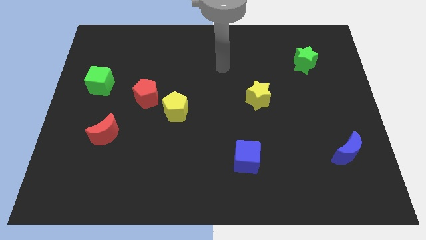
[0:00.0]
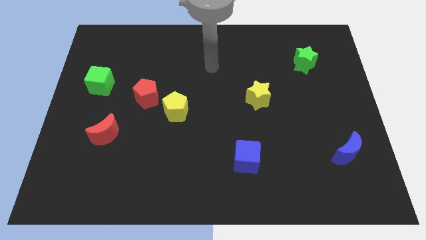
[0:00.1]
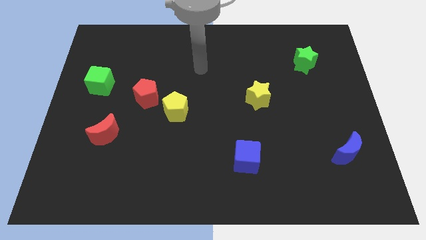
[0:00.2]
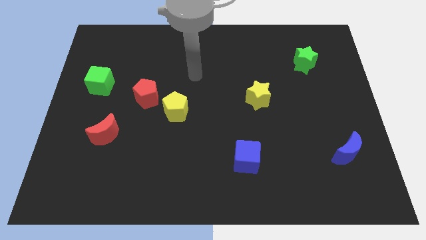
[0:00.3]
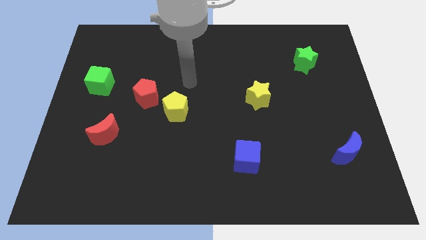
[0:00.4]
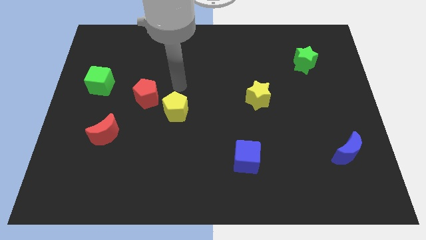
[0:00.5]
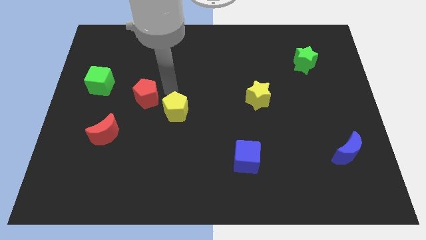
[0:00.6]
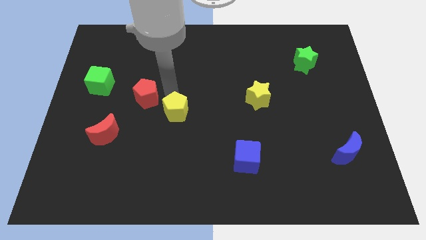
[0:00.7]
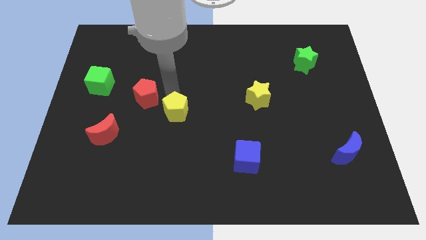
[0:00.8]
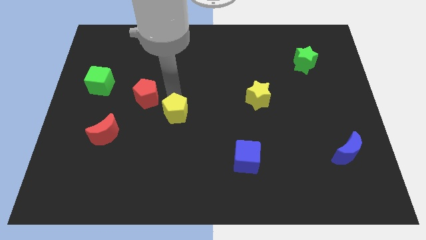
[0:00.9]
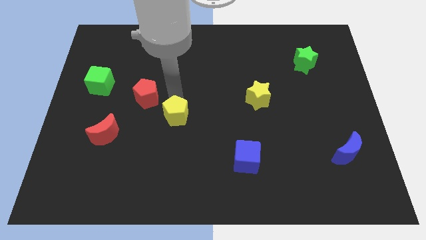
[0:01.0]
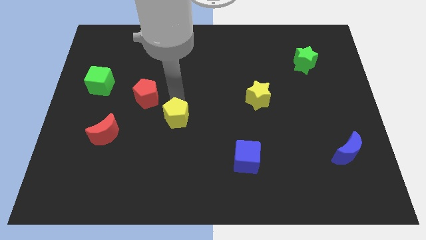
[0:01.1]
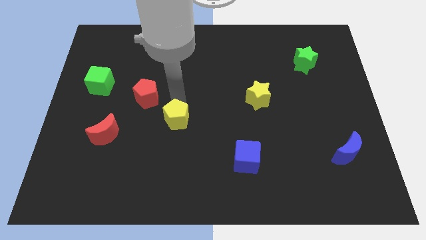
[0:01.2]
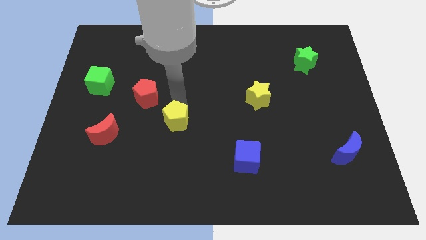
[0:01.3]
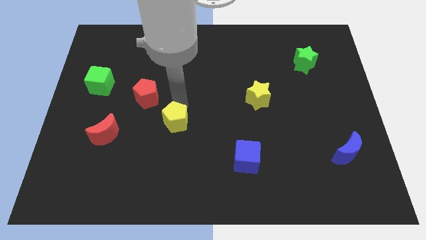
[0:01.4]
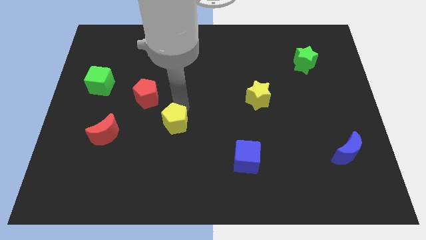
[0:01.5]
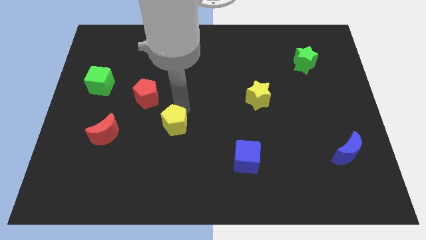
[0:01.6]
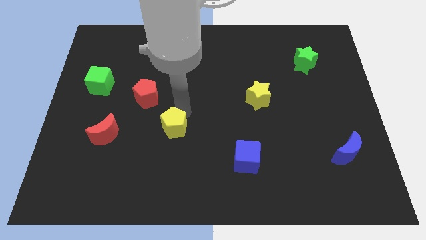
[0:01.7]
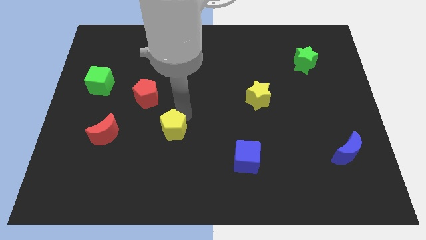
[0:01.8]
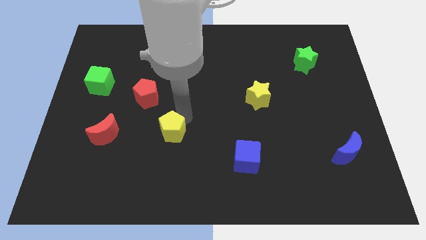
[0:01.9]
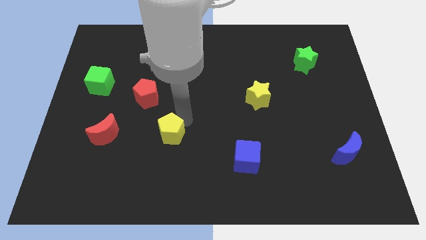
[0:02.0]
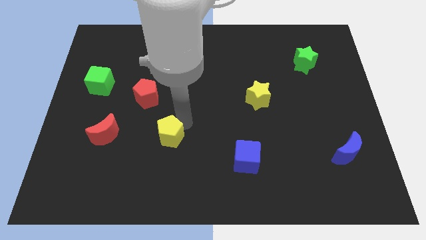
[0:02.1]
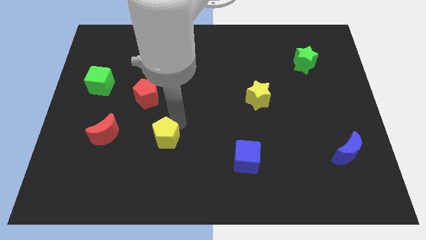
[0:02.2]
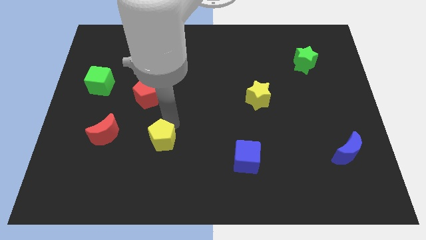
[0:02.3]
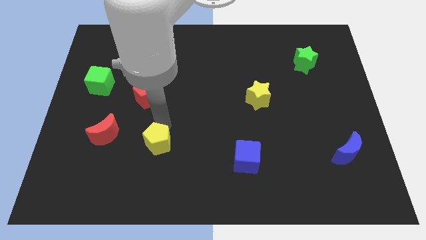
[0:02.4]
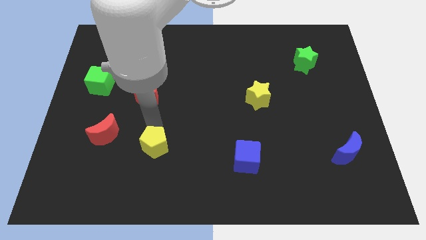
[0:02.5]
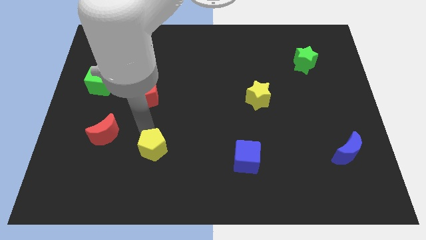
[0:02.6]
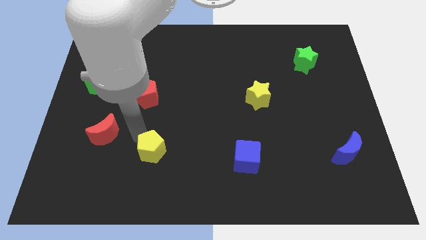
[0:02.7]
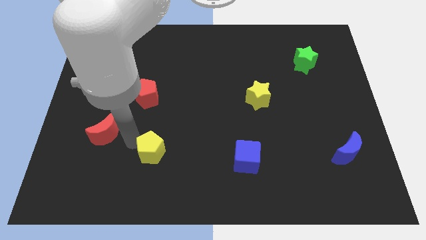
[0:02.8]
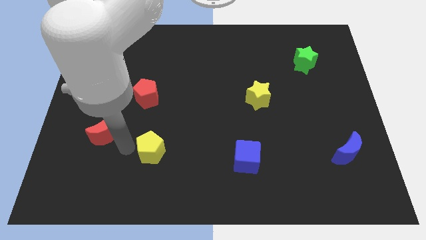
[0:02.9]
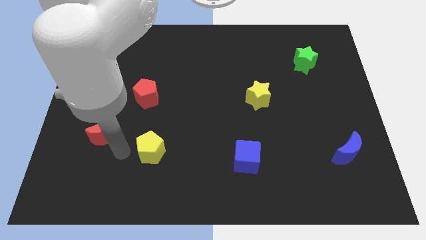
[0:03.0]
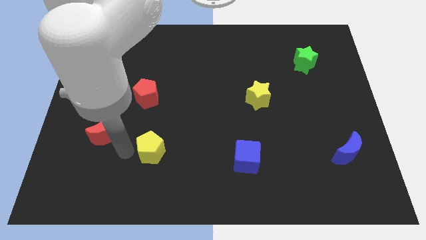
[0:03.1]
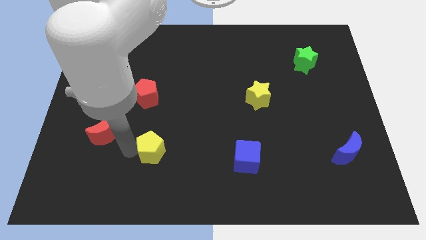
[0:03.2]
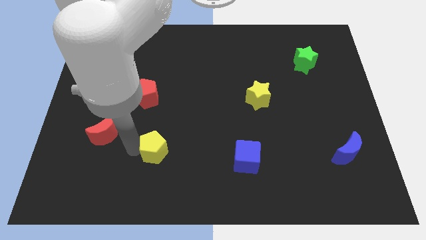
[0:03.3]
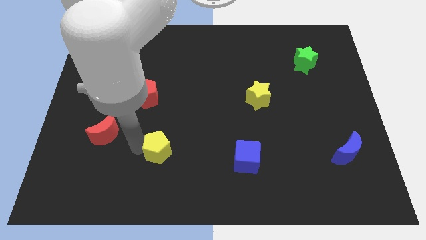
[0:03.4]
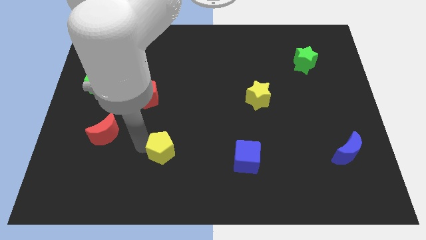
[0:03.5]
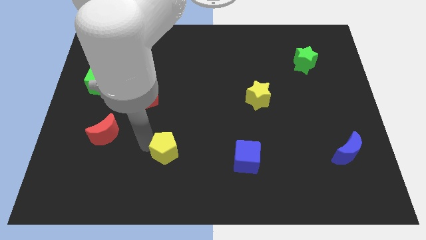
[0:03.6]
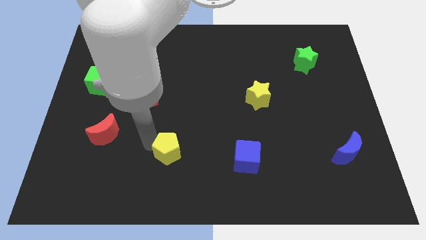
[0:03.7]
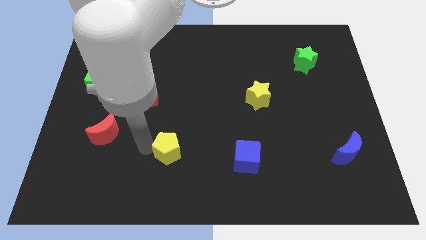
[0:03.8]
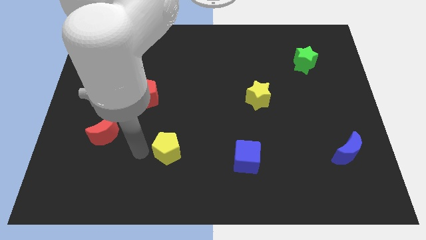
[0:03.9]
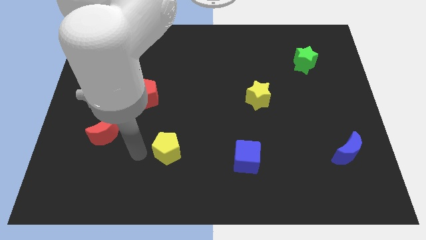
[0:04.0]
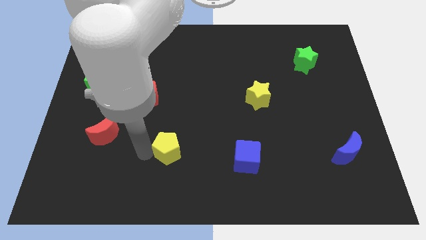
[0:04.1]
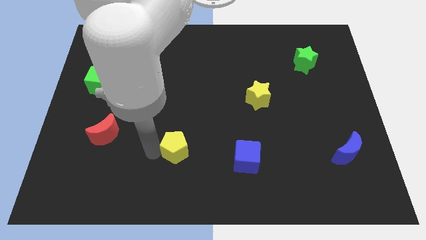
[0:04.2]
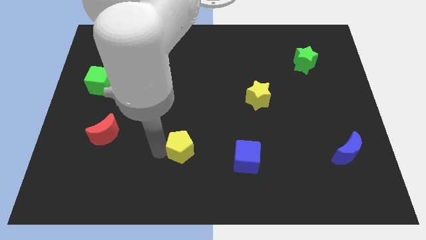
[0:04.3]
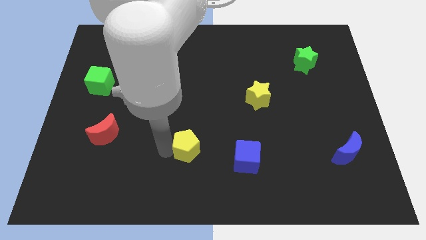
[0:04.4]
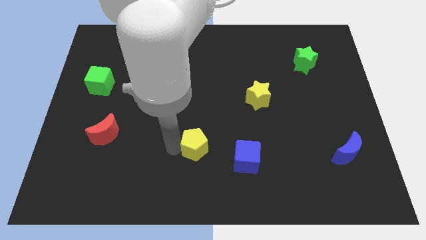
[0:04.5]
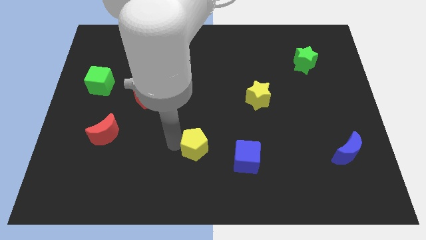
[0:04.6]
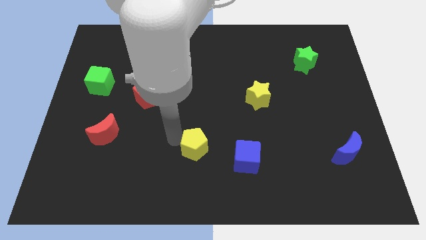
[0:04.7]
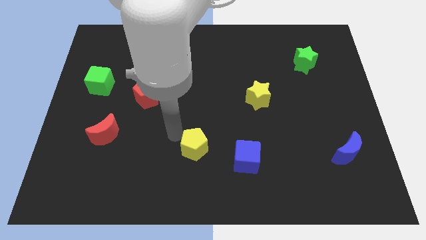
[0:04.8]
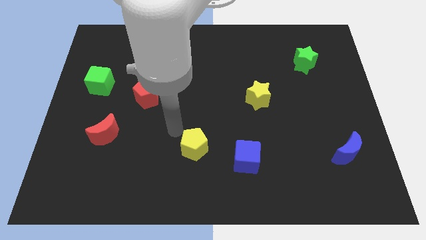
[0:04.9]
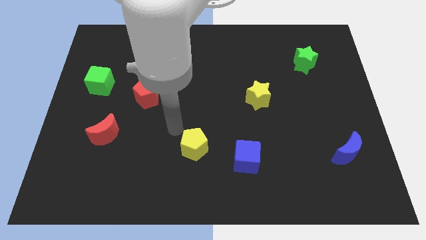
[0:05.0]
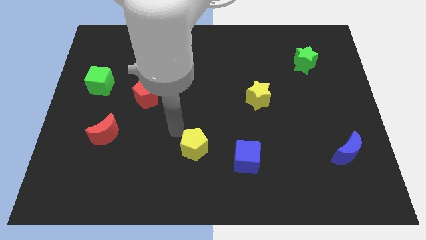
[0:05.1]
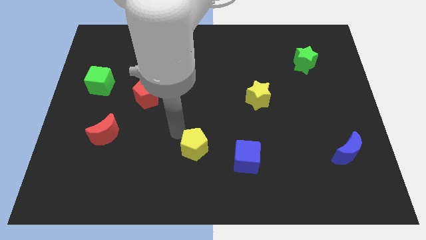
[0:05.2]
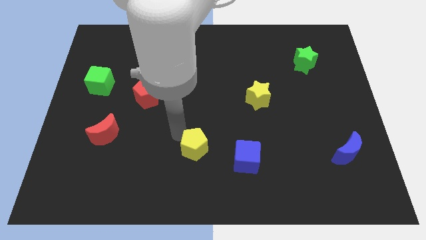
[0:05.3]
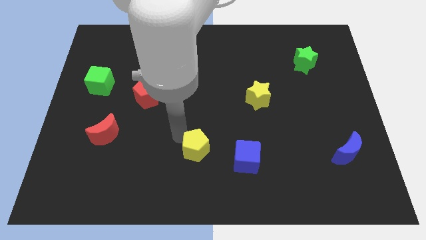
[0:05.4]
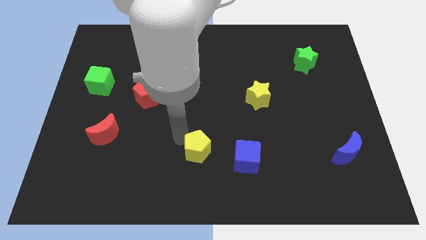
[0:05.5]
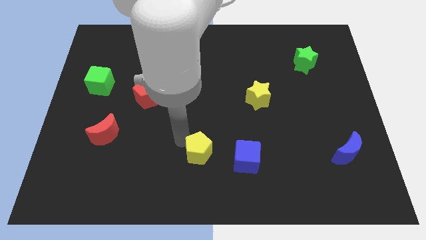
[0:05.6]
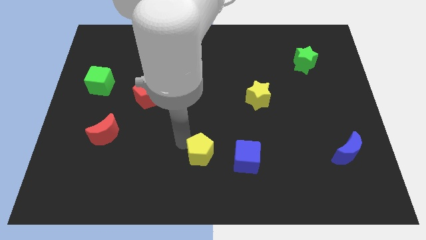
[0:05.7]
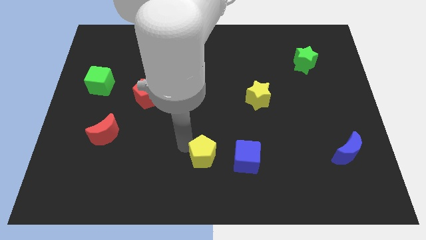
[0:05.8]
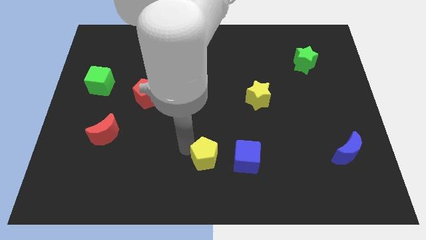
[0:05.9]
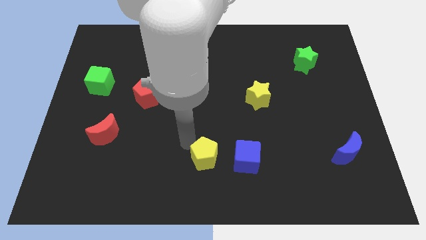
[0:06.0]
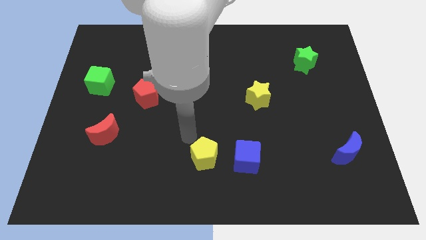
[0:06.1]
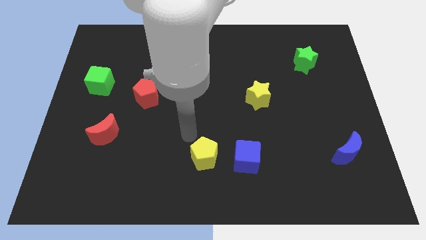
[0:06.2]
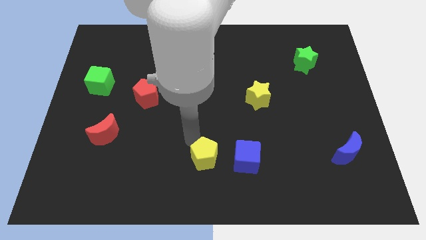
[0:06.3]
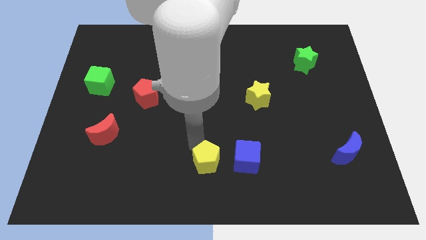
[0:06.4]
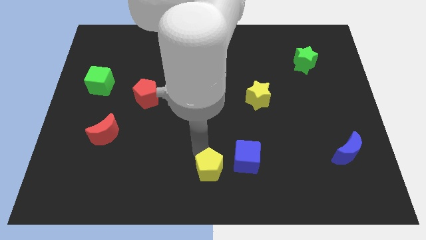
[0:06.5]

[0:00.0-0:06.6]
push the yellow pentagon diagonally down and to the left of the blue cube
